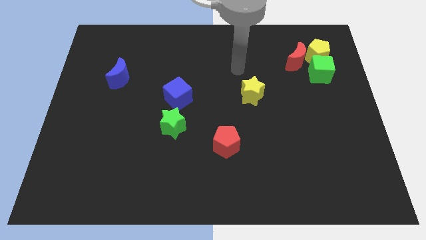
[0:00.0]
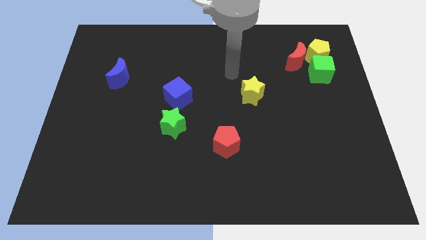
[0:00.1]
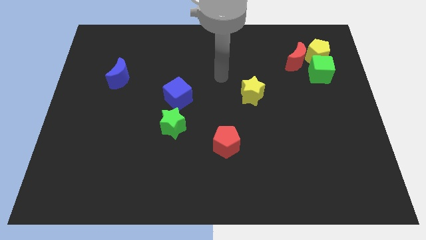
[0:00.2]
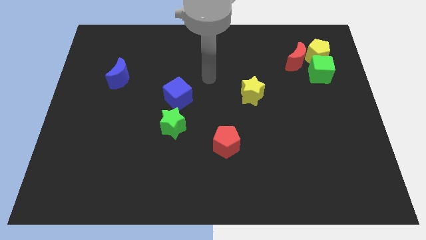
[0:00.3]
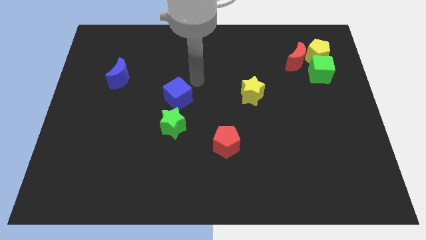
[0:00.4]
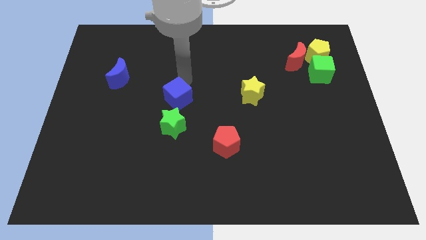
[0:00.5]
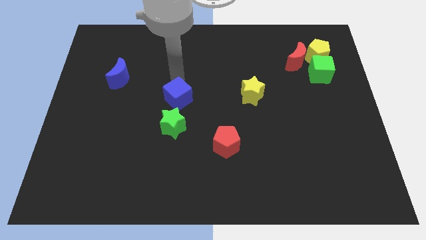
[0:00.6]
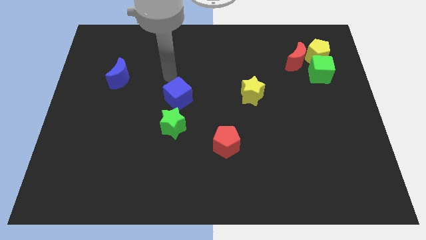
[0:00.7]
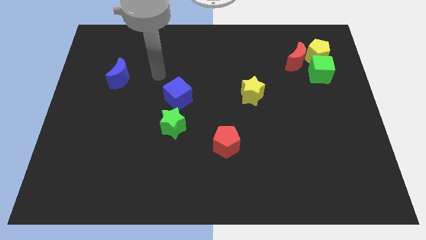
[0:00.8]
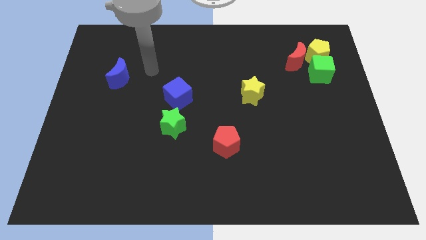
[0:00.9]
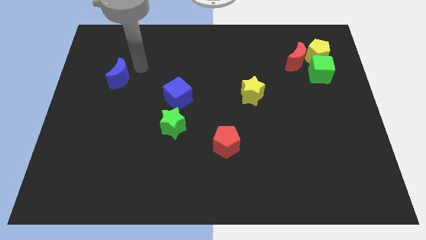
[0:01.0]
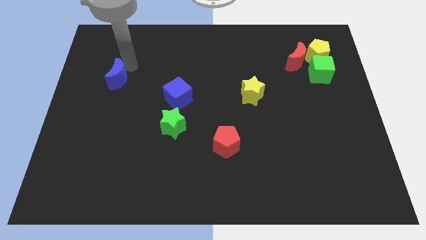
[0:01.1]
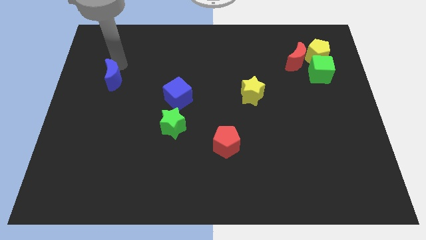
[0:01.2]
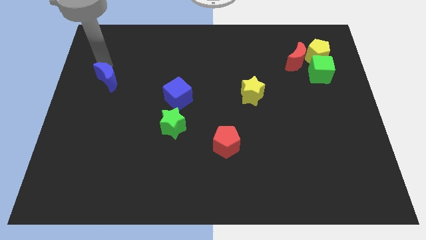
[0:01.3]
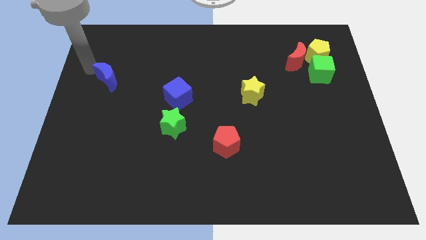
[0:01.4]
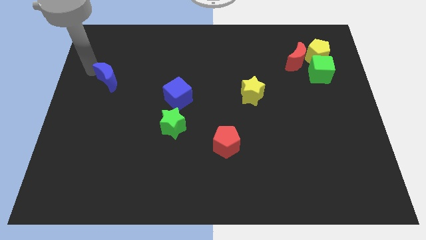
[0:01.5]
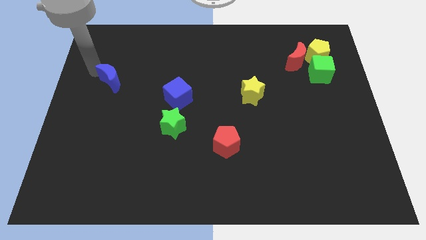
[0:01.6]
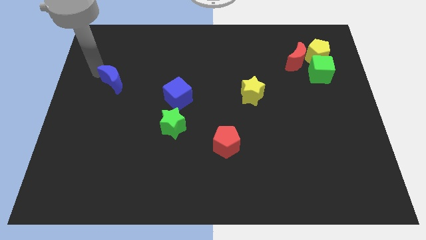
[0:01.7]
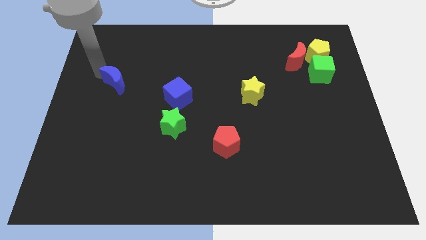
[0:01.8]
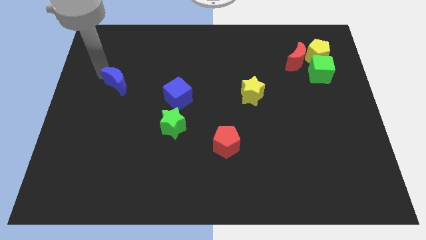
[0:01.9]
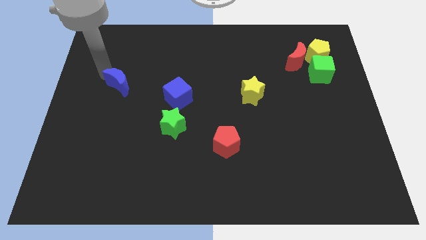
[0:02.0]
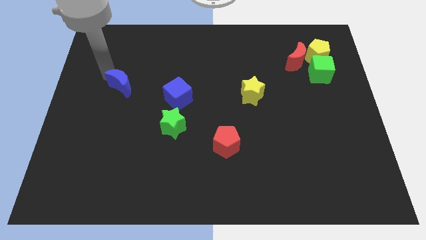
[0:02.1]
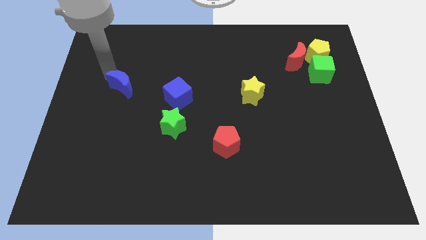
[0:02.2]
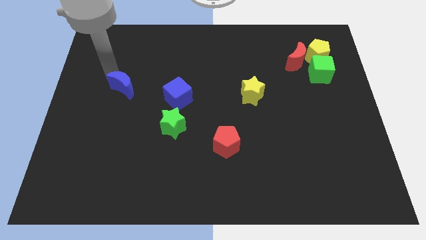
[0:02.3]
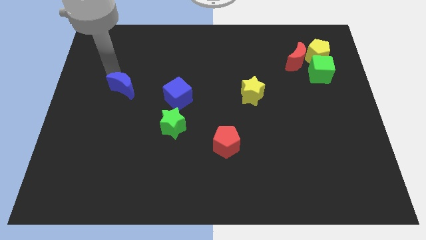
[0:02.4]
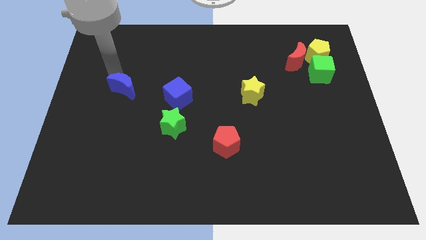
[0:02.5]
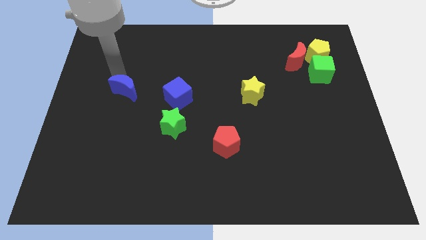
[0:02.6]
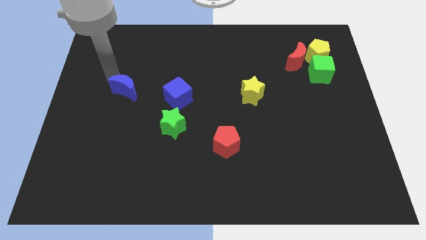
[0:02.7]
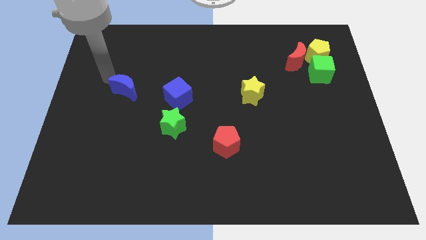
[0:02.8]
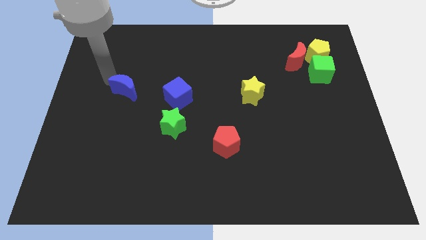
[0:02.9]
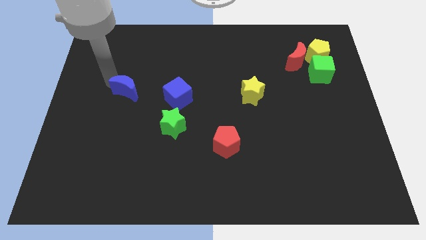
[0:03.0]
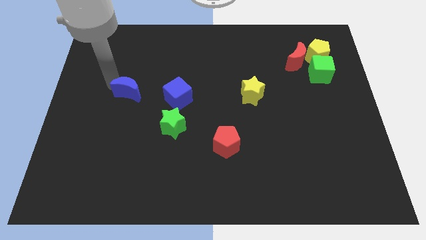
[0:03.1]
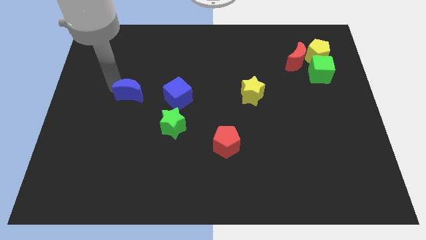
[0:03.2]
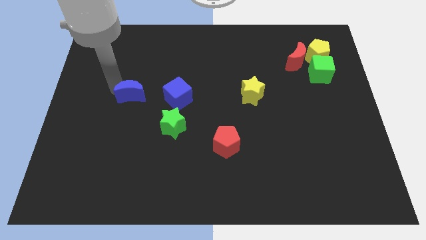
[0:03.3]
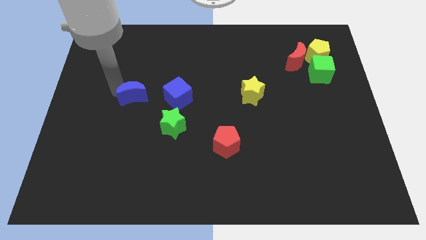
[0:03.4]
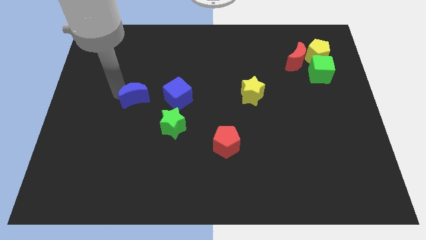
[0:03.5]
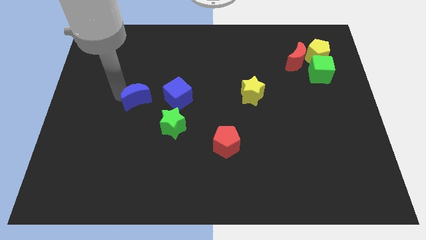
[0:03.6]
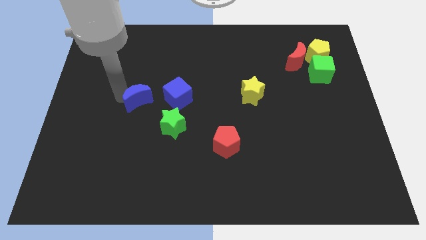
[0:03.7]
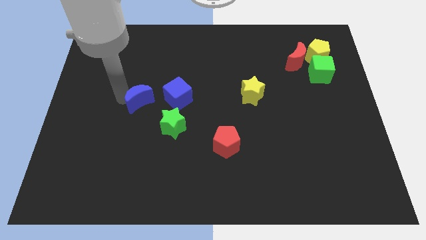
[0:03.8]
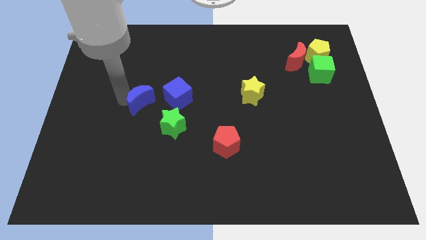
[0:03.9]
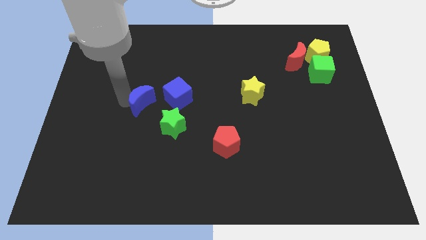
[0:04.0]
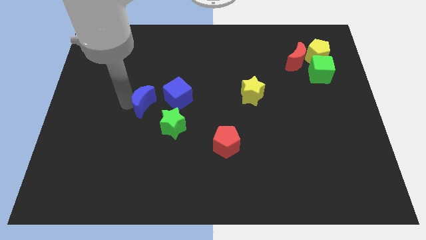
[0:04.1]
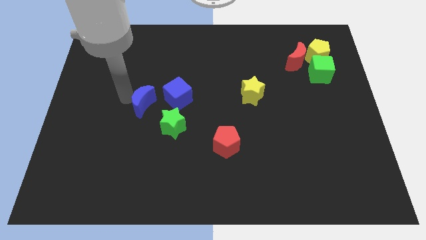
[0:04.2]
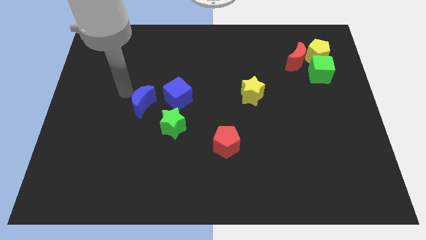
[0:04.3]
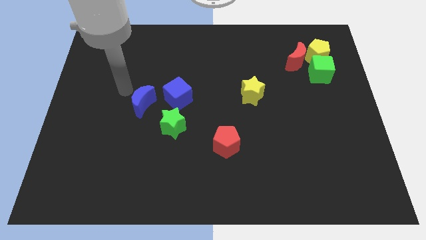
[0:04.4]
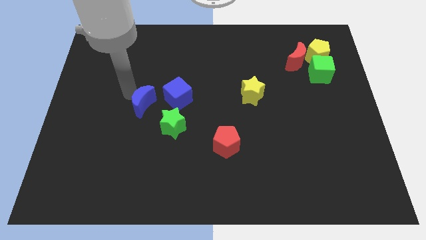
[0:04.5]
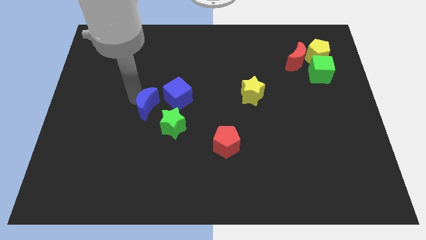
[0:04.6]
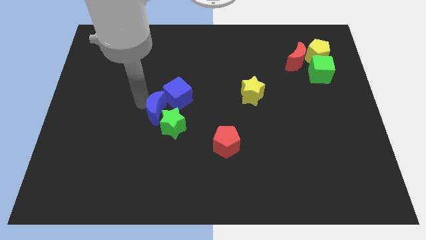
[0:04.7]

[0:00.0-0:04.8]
push the blue moon next to the green star

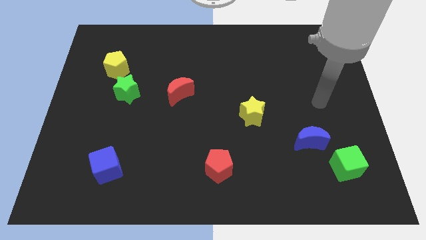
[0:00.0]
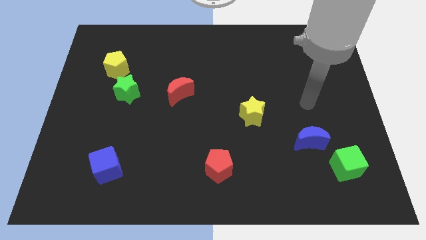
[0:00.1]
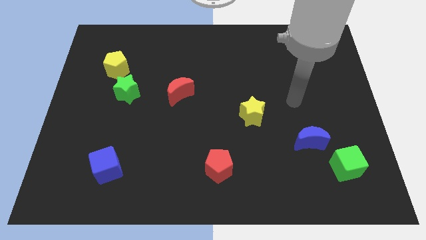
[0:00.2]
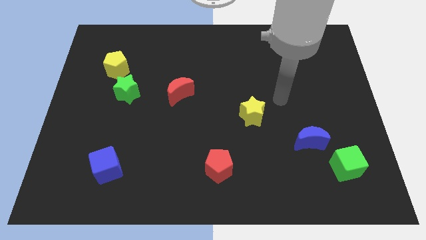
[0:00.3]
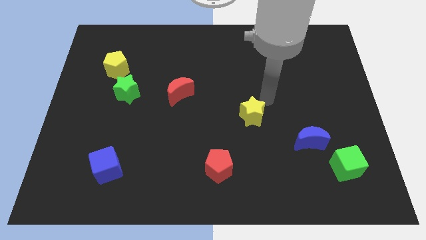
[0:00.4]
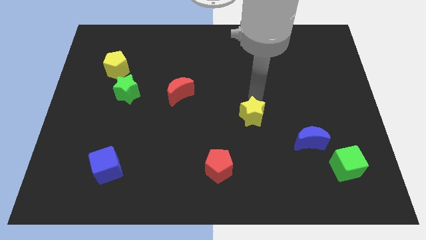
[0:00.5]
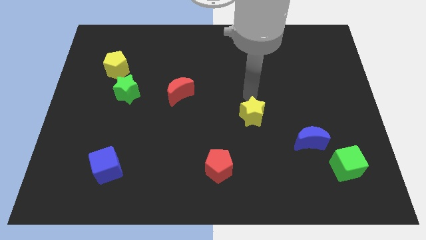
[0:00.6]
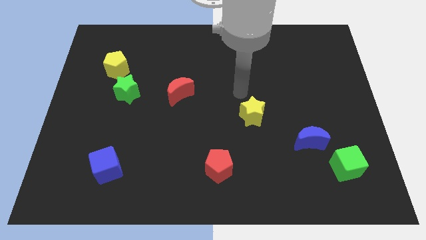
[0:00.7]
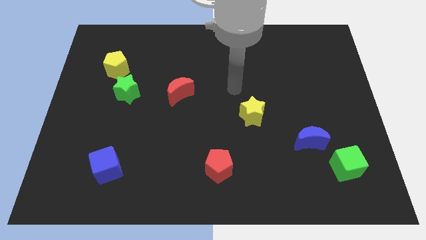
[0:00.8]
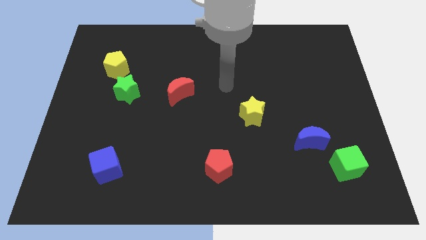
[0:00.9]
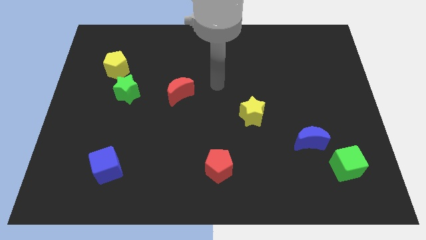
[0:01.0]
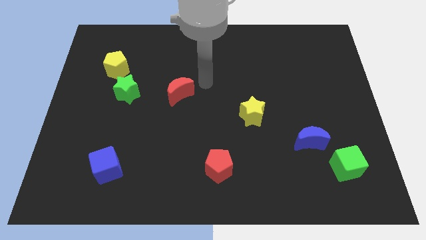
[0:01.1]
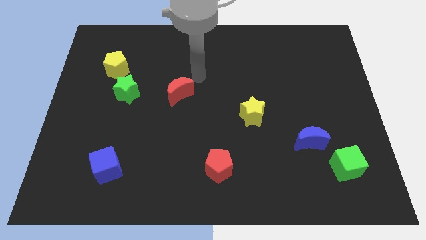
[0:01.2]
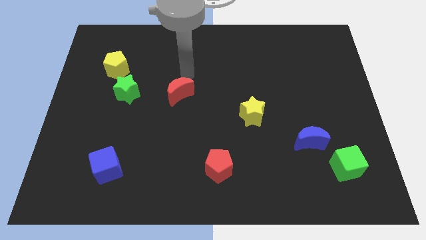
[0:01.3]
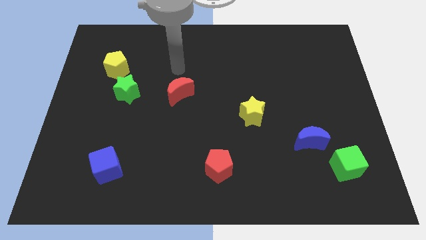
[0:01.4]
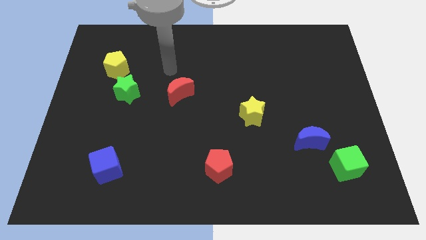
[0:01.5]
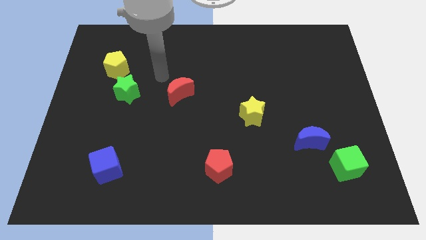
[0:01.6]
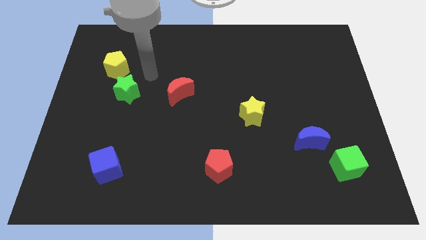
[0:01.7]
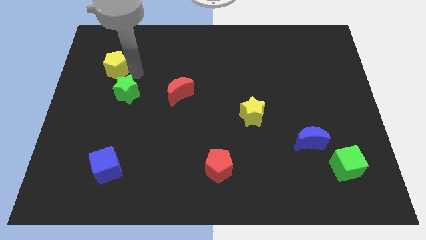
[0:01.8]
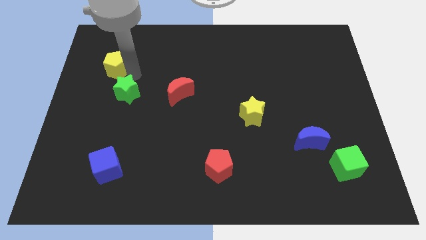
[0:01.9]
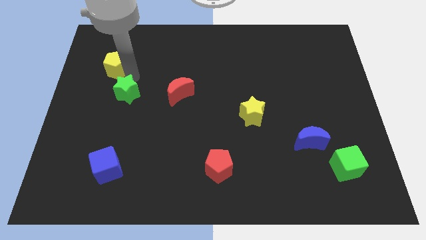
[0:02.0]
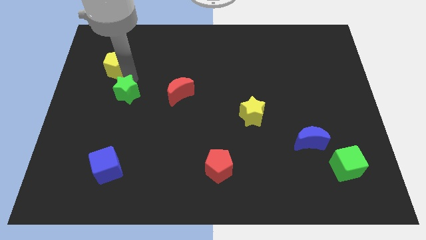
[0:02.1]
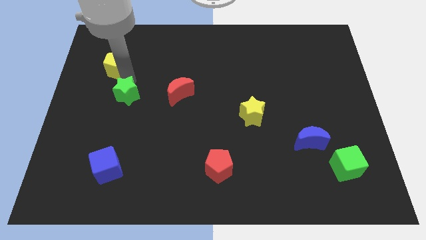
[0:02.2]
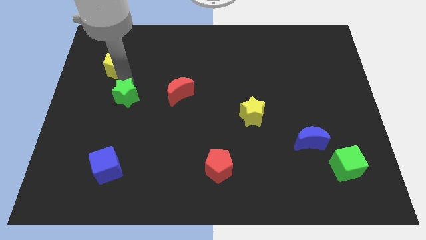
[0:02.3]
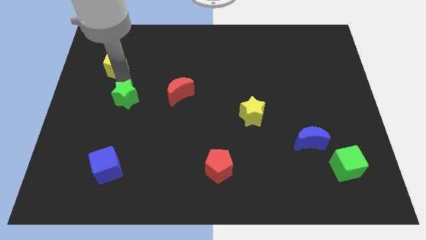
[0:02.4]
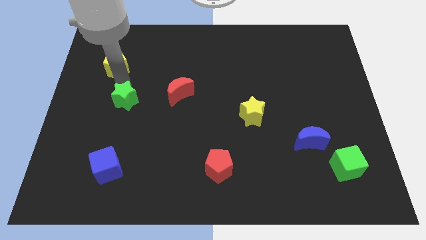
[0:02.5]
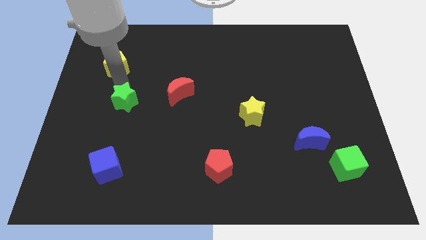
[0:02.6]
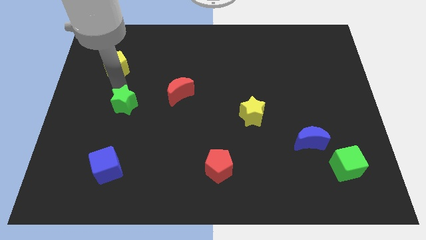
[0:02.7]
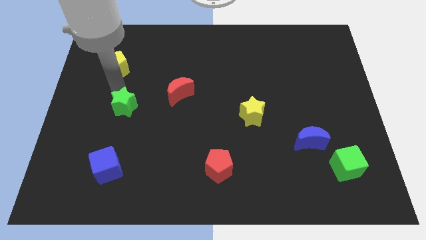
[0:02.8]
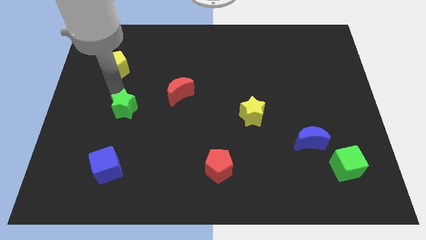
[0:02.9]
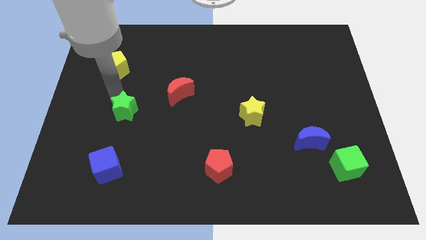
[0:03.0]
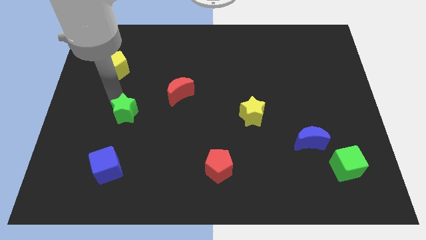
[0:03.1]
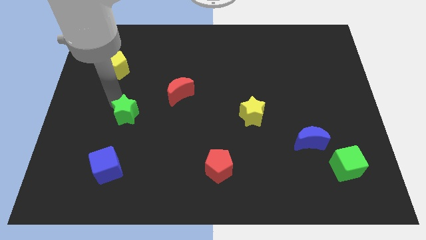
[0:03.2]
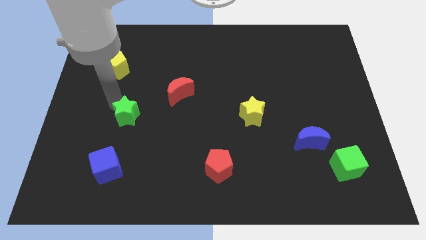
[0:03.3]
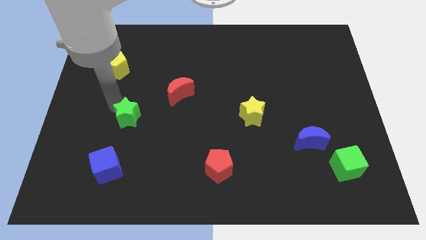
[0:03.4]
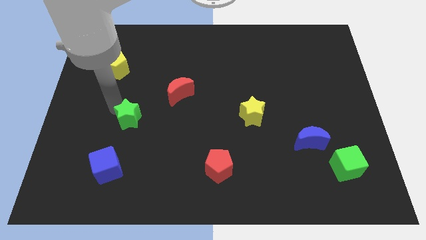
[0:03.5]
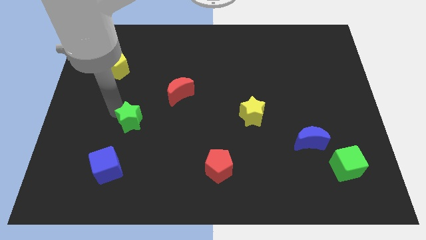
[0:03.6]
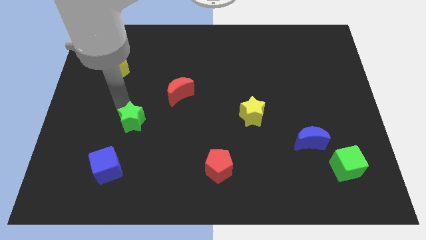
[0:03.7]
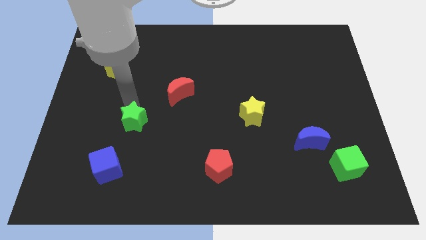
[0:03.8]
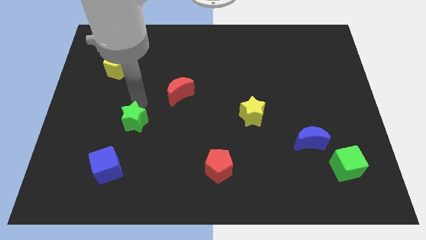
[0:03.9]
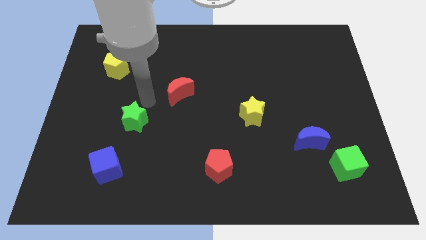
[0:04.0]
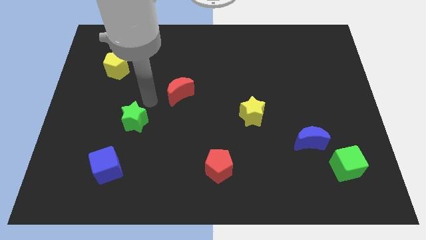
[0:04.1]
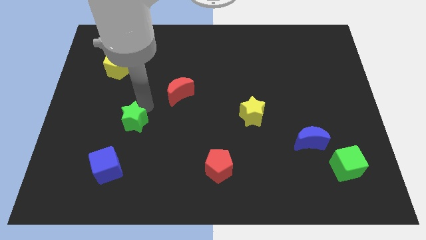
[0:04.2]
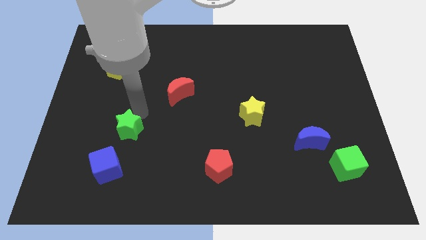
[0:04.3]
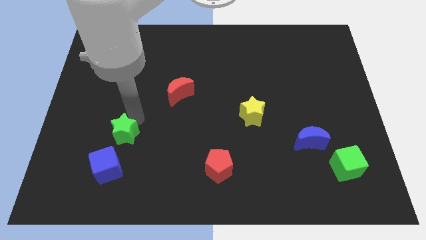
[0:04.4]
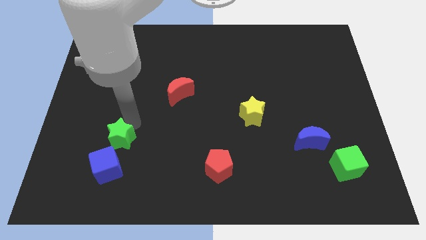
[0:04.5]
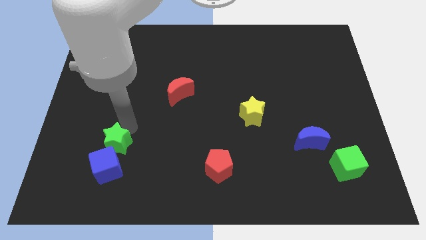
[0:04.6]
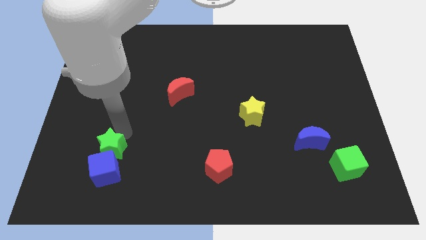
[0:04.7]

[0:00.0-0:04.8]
put the green star close to the blue cube
